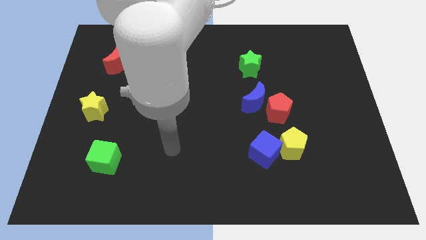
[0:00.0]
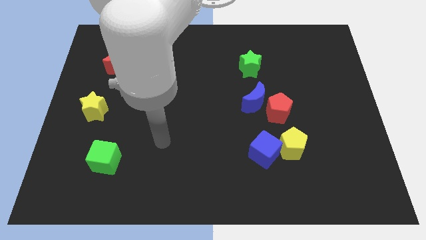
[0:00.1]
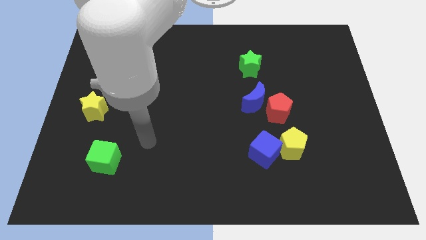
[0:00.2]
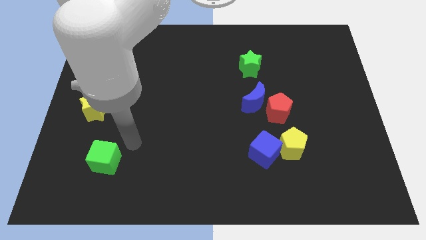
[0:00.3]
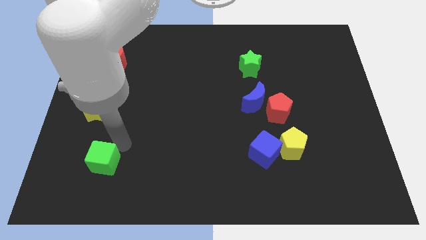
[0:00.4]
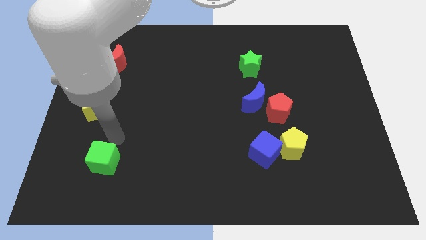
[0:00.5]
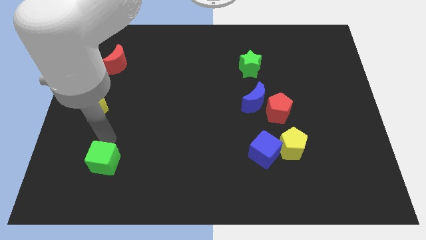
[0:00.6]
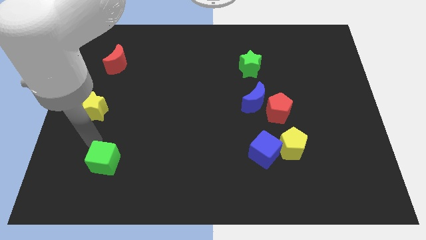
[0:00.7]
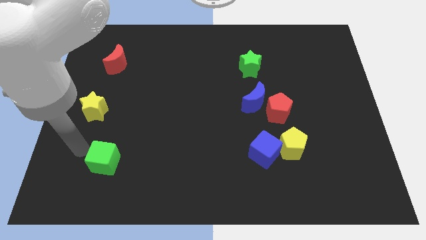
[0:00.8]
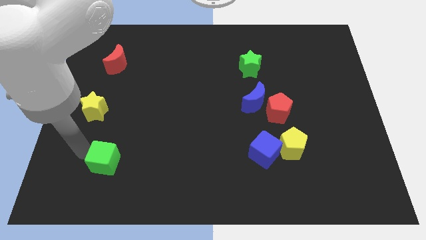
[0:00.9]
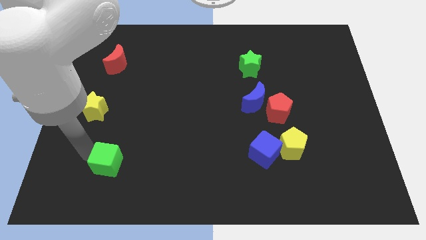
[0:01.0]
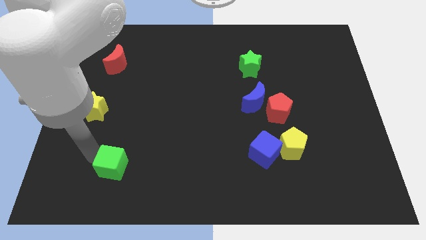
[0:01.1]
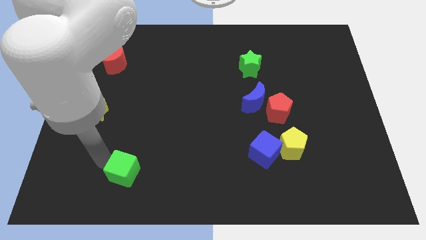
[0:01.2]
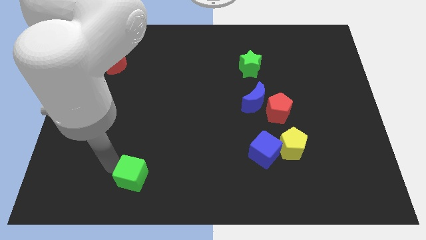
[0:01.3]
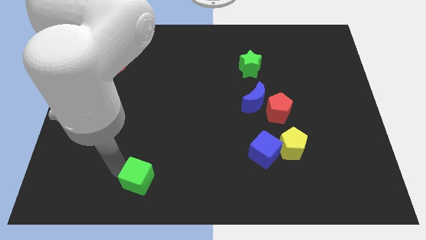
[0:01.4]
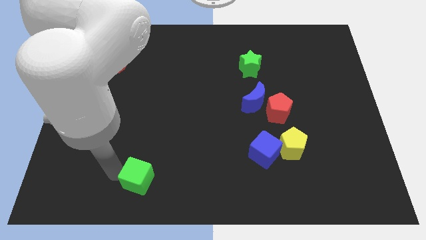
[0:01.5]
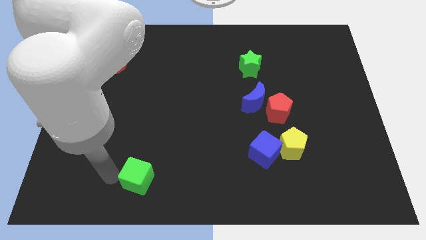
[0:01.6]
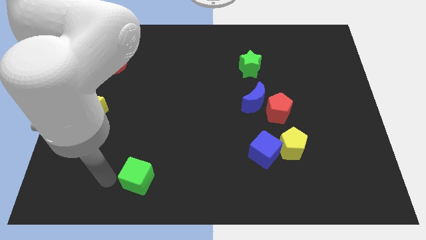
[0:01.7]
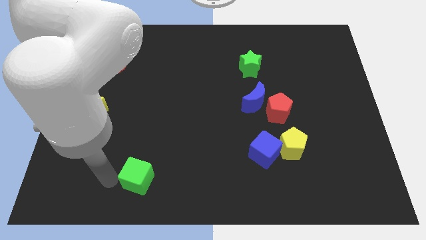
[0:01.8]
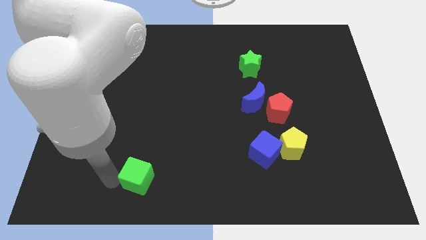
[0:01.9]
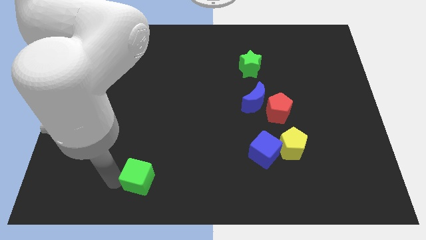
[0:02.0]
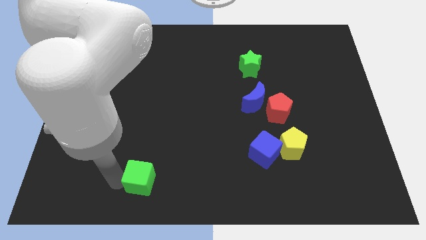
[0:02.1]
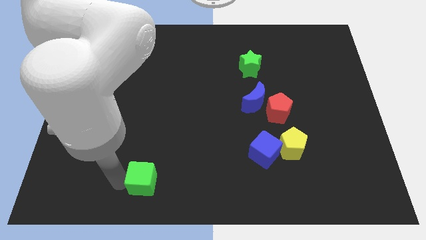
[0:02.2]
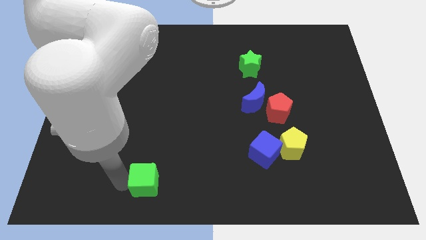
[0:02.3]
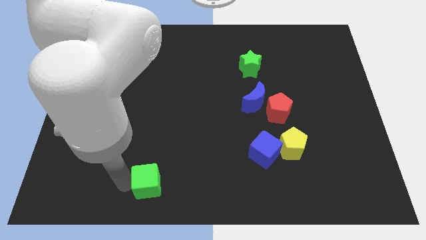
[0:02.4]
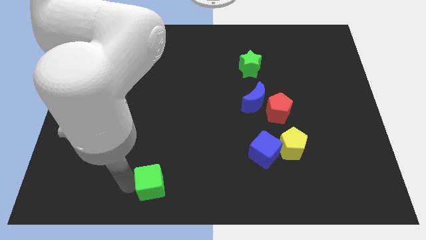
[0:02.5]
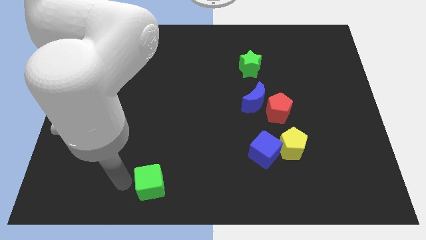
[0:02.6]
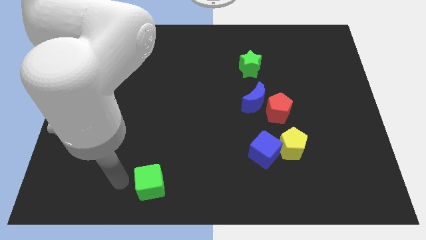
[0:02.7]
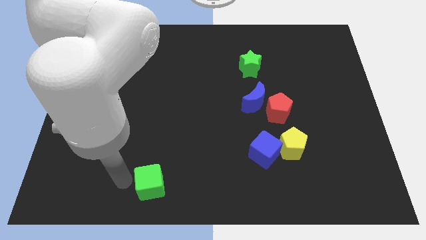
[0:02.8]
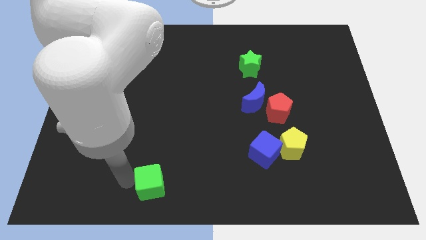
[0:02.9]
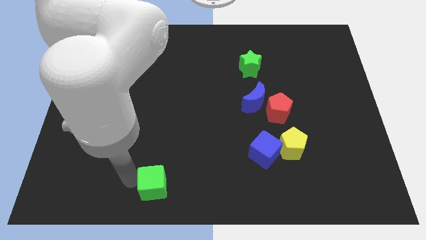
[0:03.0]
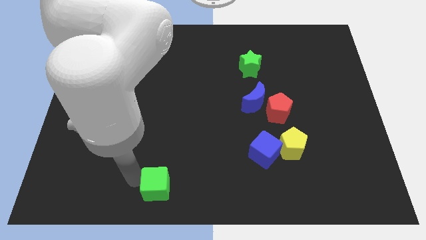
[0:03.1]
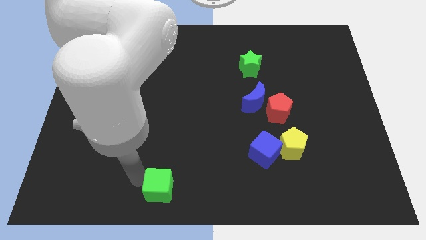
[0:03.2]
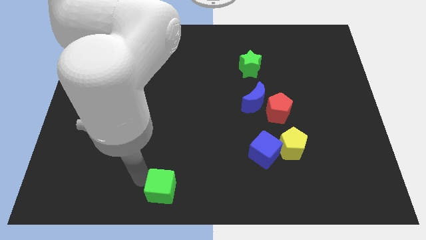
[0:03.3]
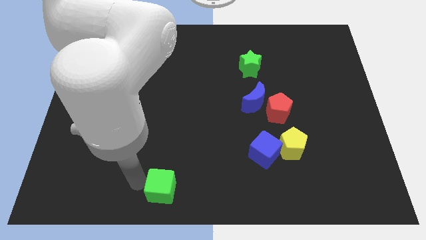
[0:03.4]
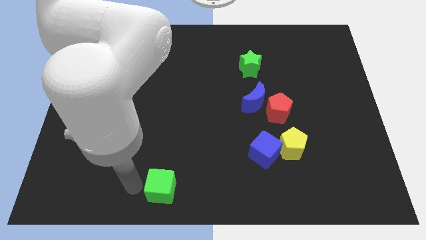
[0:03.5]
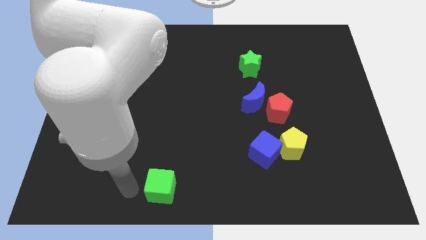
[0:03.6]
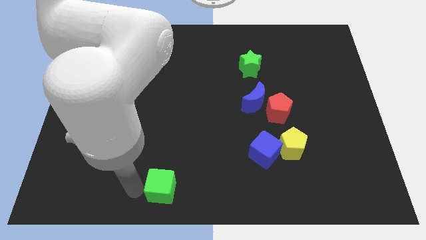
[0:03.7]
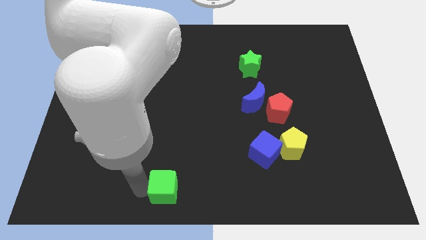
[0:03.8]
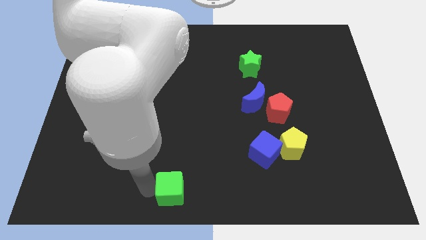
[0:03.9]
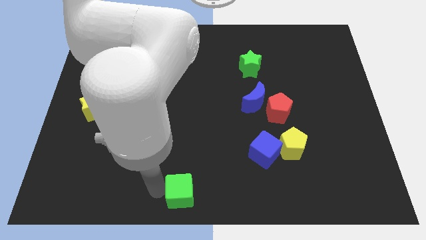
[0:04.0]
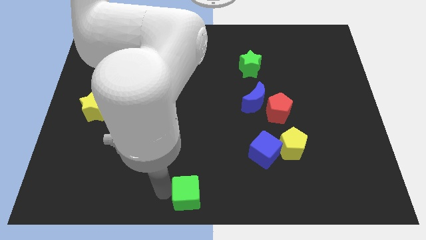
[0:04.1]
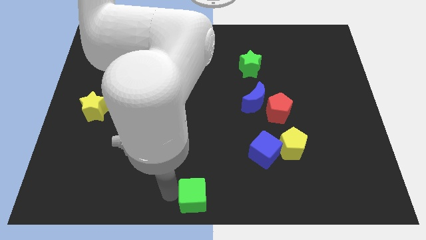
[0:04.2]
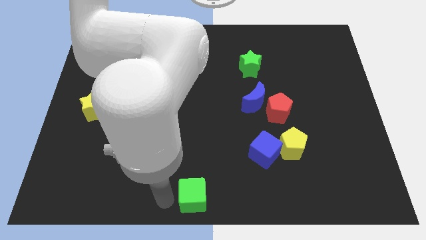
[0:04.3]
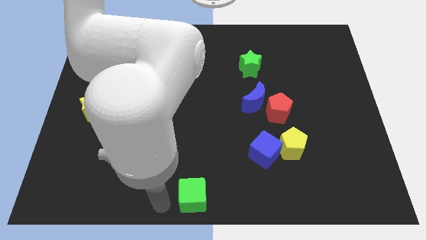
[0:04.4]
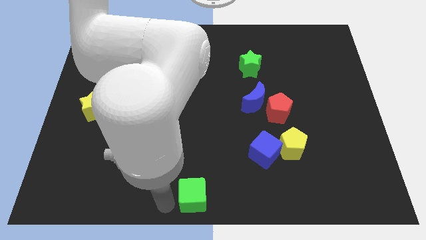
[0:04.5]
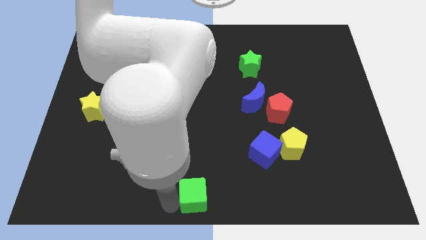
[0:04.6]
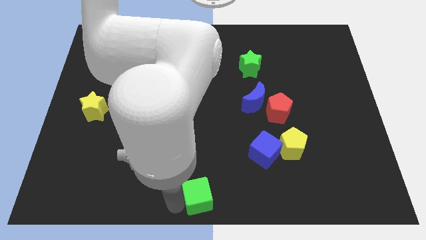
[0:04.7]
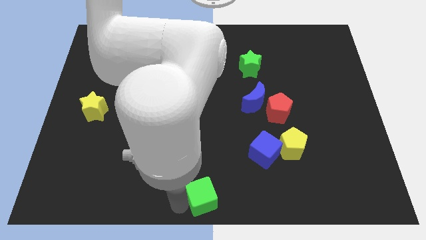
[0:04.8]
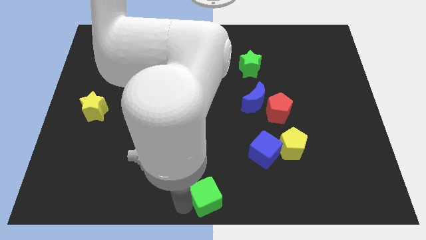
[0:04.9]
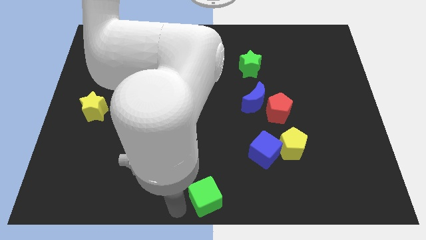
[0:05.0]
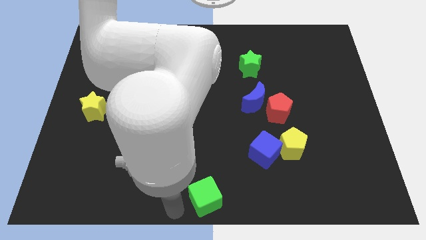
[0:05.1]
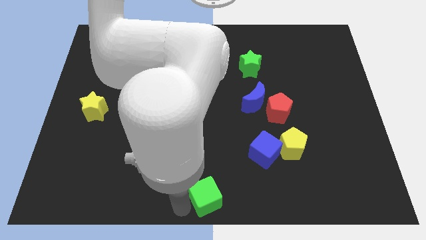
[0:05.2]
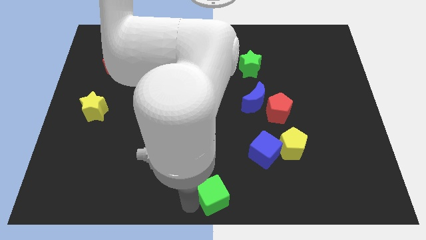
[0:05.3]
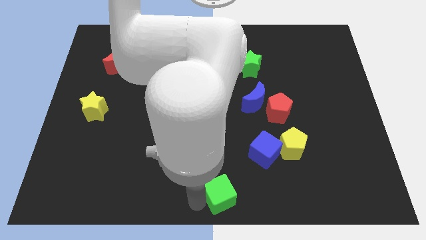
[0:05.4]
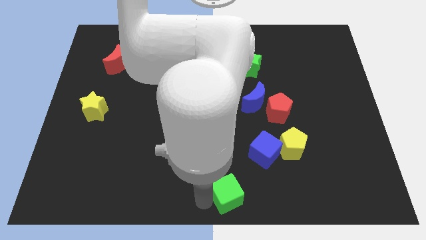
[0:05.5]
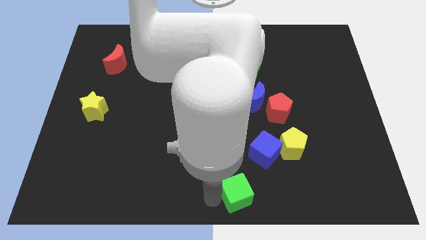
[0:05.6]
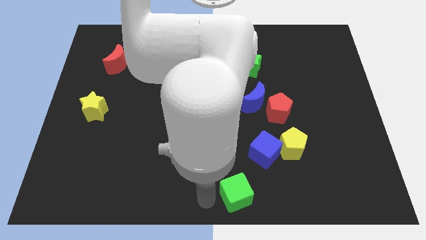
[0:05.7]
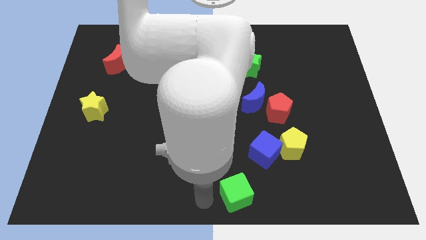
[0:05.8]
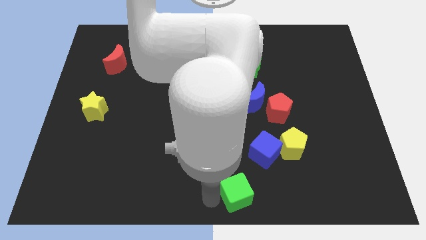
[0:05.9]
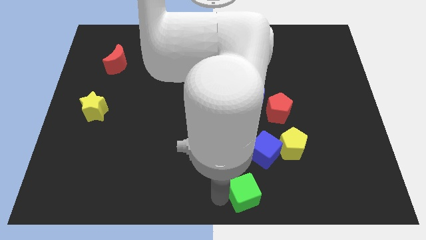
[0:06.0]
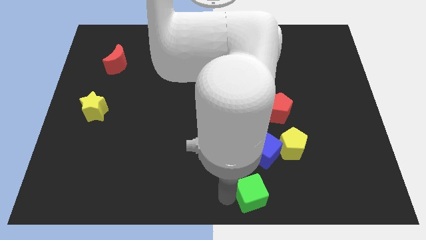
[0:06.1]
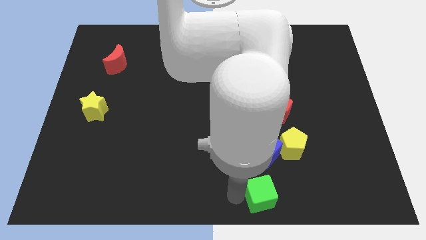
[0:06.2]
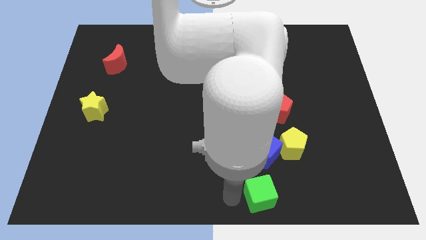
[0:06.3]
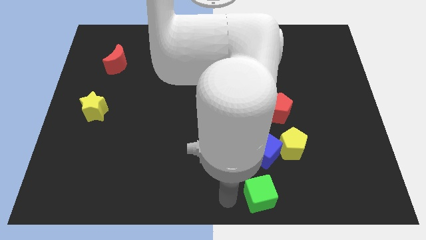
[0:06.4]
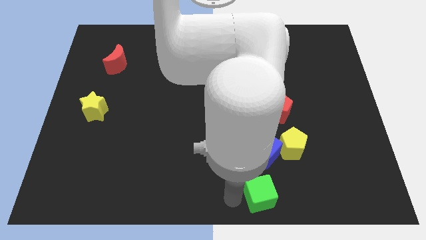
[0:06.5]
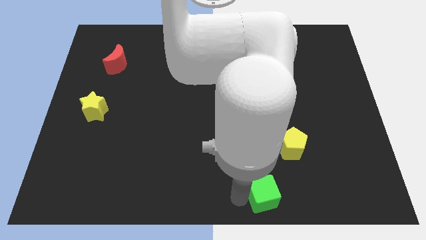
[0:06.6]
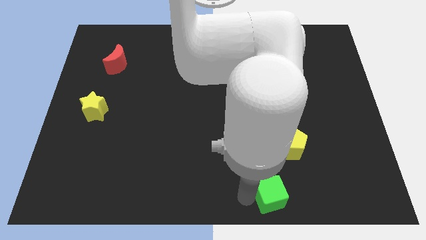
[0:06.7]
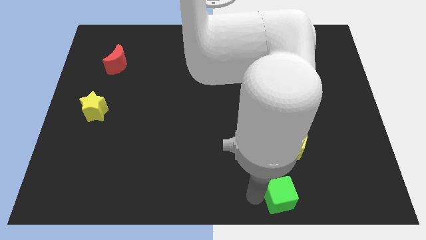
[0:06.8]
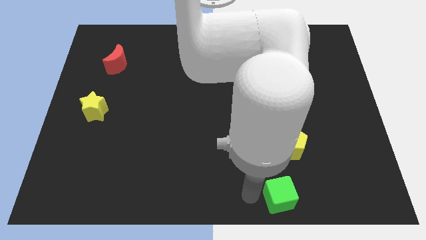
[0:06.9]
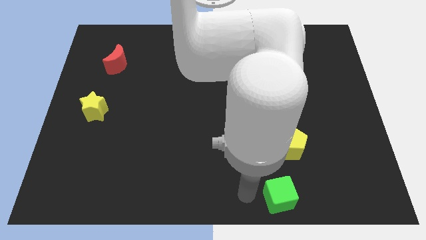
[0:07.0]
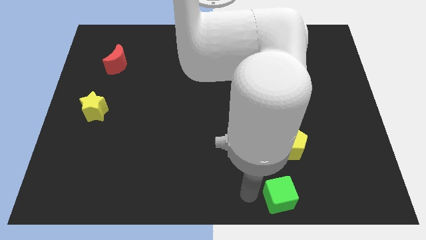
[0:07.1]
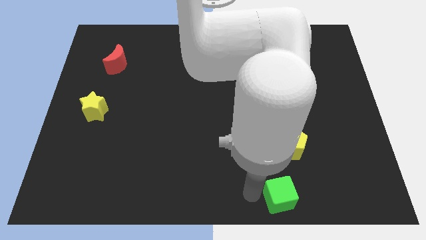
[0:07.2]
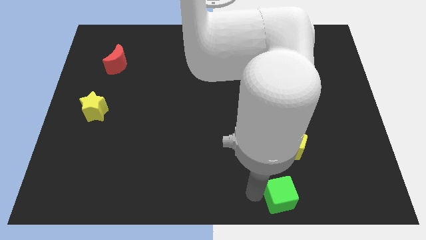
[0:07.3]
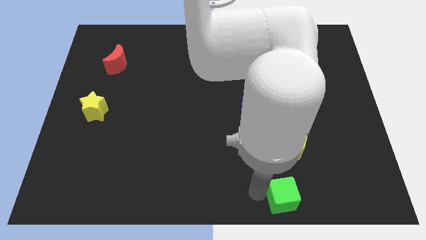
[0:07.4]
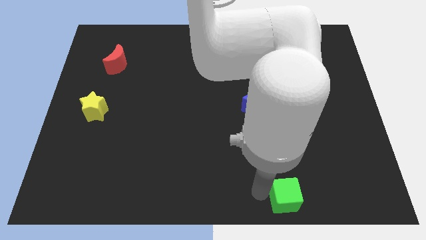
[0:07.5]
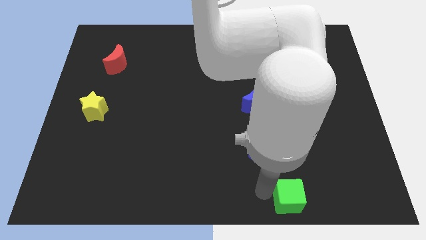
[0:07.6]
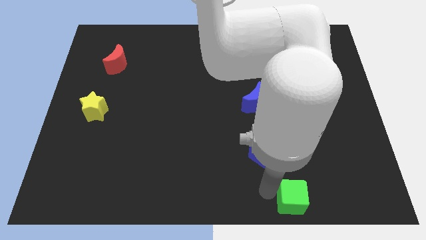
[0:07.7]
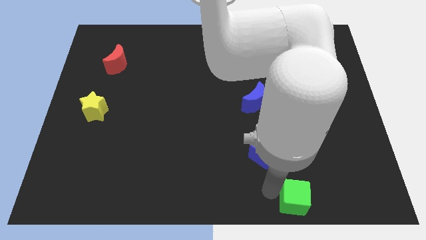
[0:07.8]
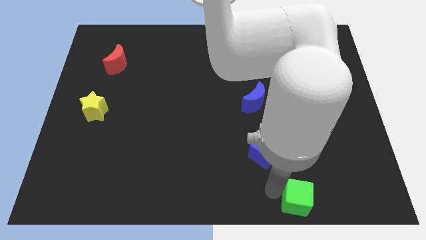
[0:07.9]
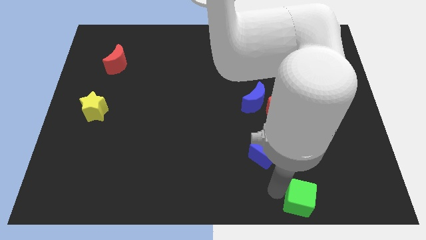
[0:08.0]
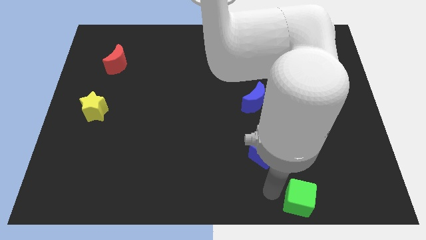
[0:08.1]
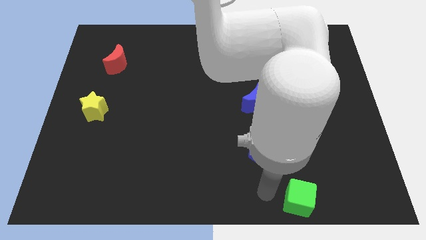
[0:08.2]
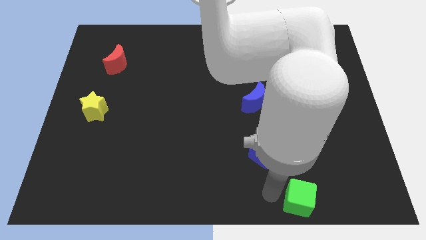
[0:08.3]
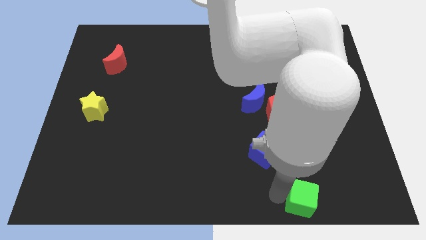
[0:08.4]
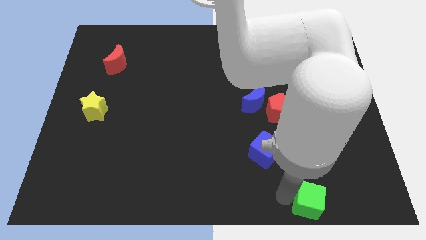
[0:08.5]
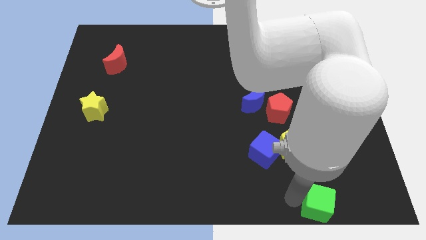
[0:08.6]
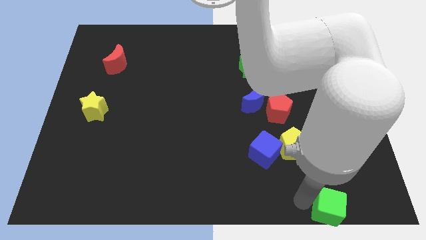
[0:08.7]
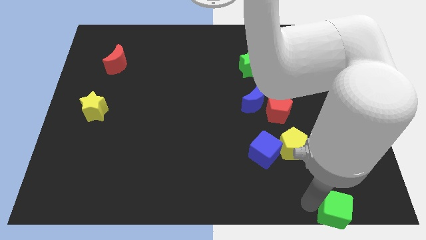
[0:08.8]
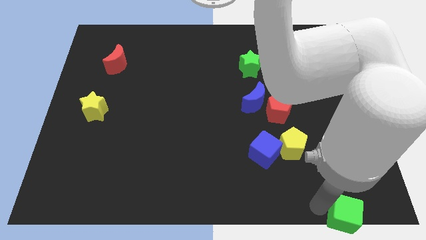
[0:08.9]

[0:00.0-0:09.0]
slide the green cube to the bottom right of the board
